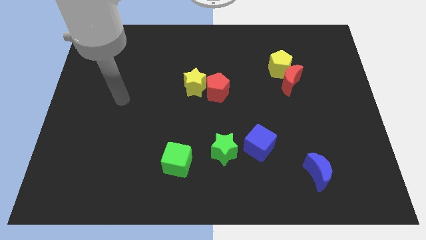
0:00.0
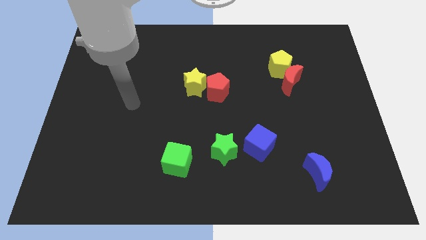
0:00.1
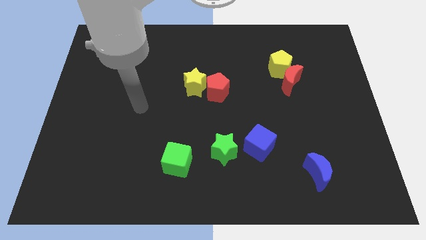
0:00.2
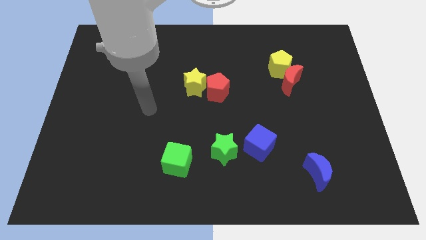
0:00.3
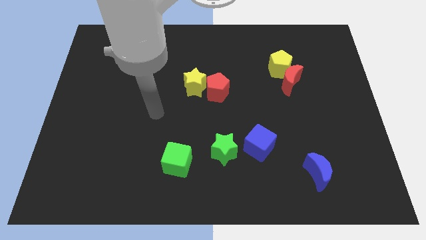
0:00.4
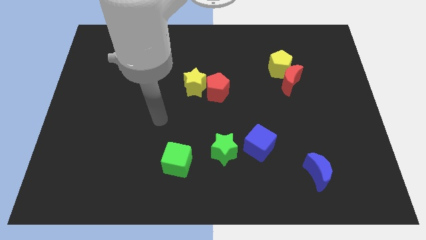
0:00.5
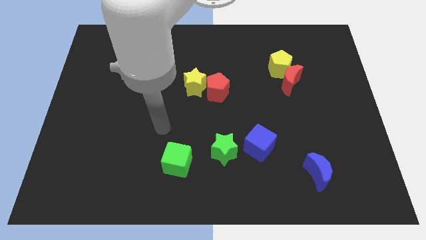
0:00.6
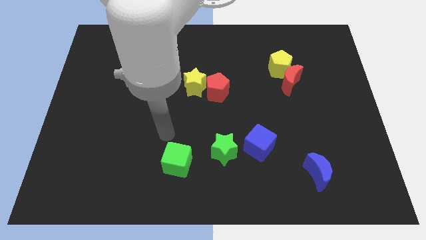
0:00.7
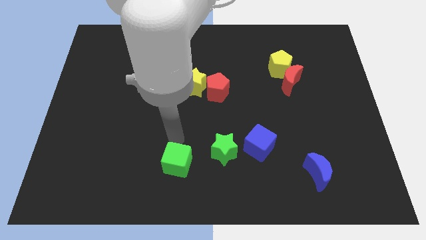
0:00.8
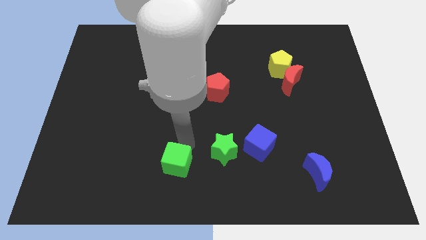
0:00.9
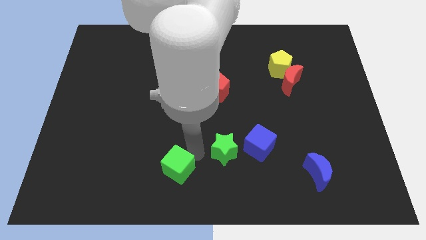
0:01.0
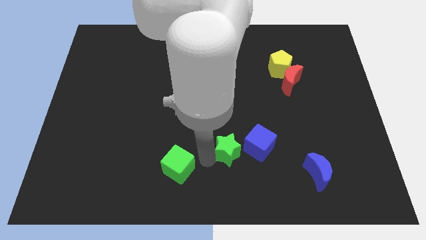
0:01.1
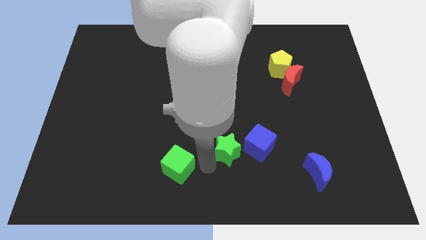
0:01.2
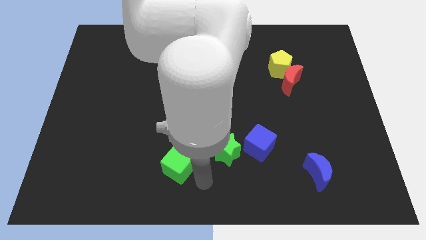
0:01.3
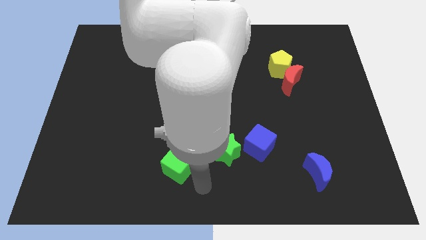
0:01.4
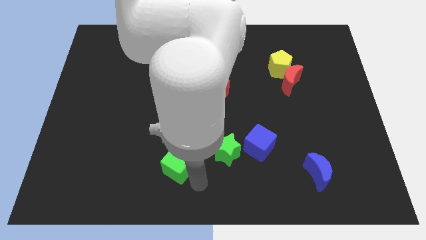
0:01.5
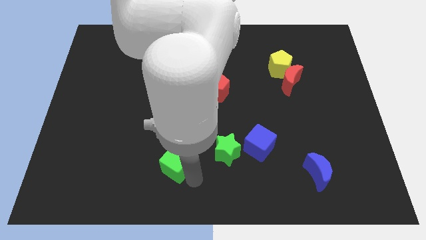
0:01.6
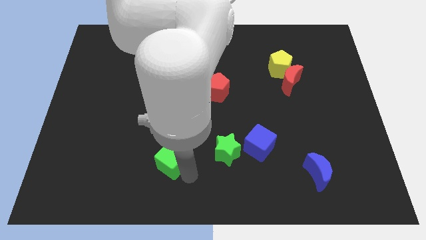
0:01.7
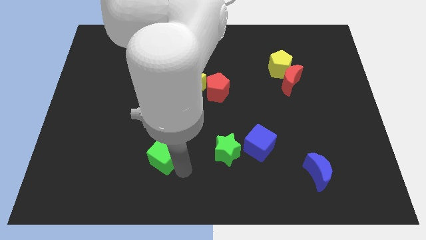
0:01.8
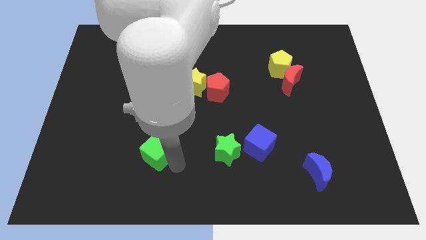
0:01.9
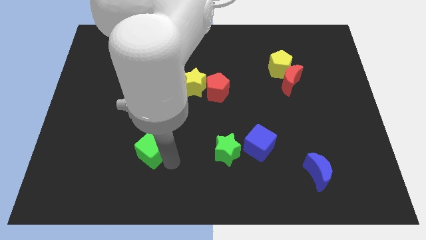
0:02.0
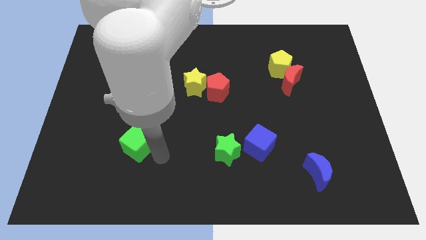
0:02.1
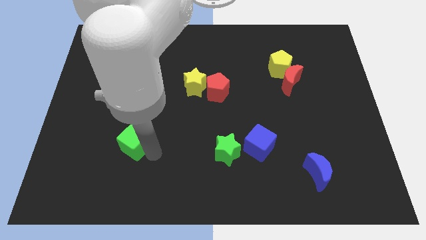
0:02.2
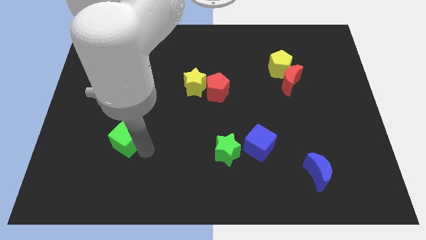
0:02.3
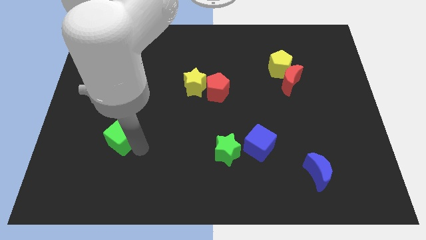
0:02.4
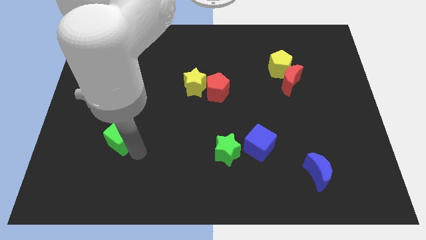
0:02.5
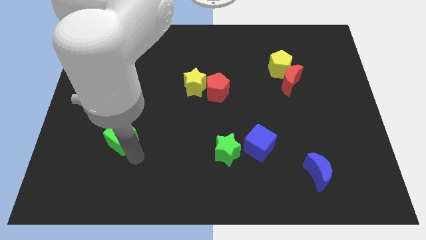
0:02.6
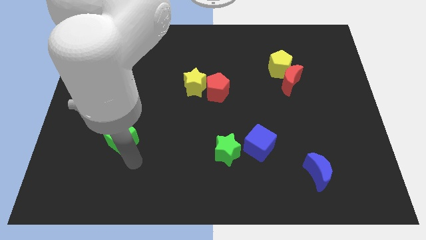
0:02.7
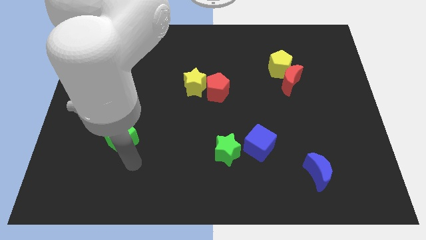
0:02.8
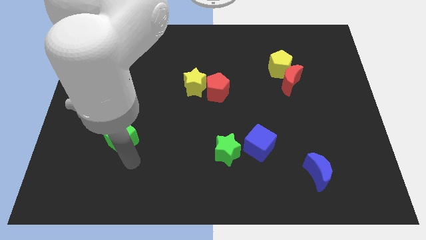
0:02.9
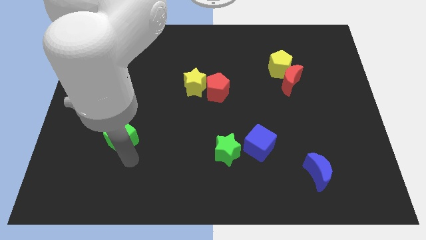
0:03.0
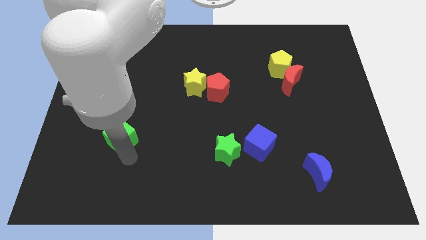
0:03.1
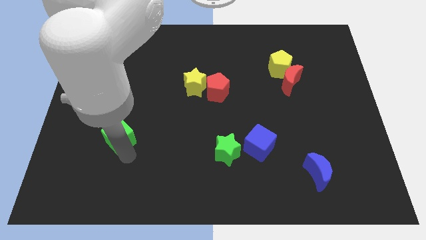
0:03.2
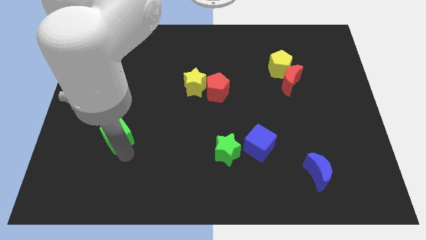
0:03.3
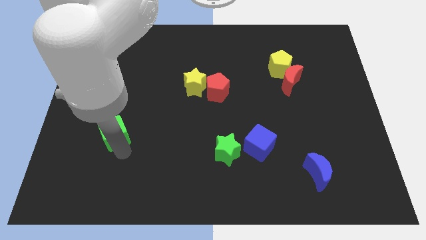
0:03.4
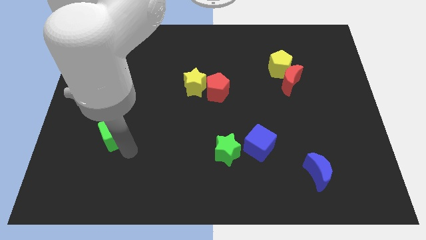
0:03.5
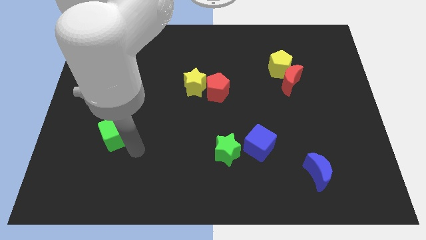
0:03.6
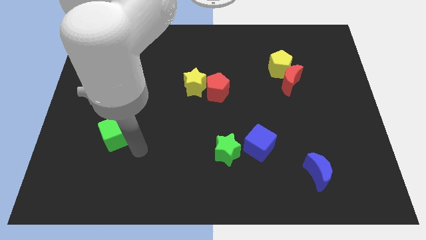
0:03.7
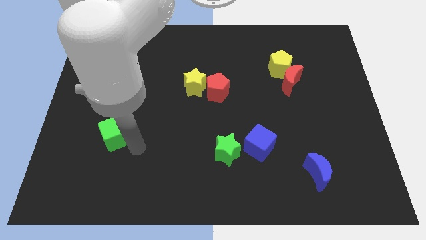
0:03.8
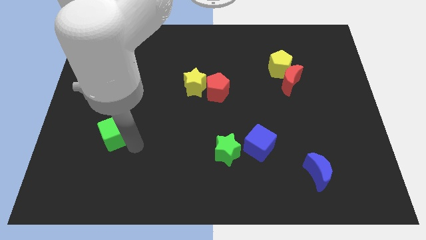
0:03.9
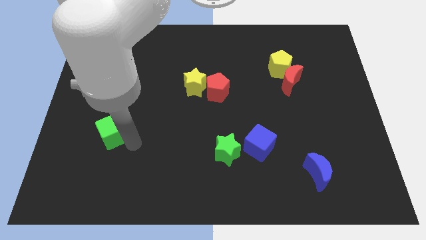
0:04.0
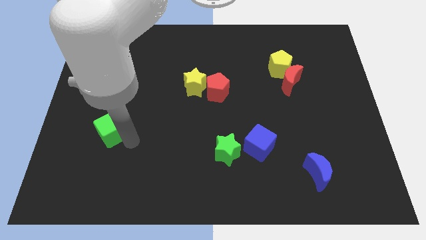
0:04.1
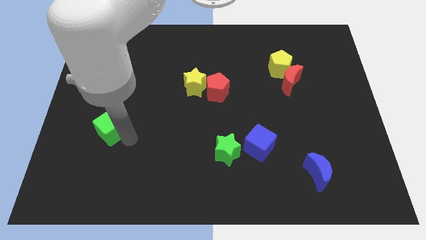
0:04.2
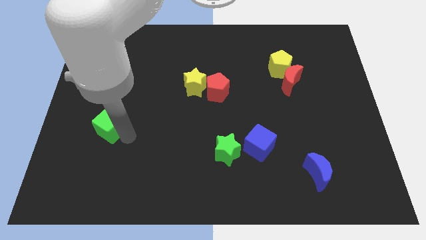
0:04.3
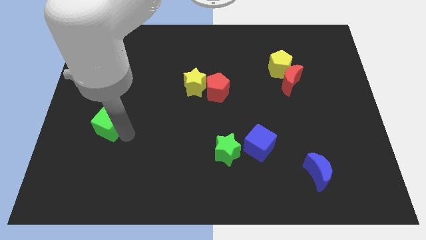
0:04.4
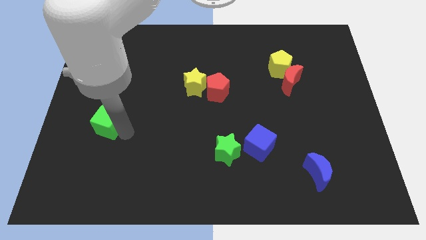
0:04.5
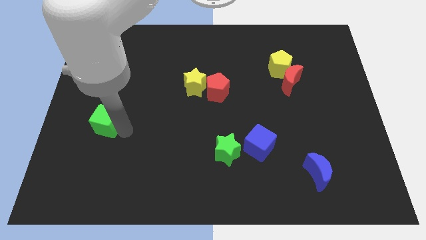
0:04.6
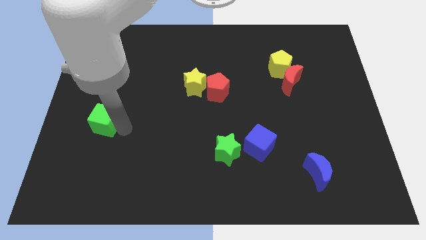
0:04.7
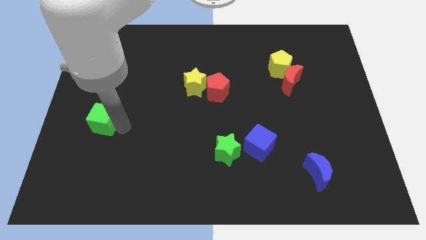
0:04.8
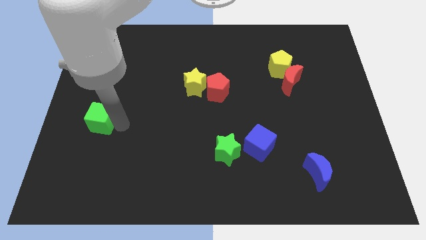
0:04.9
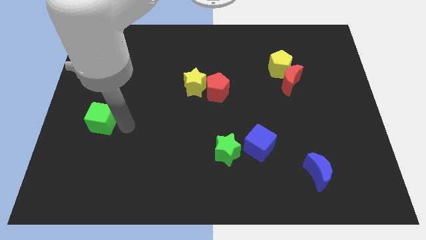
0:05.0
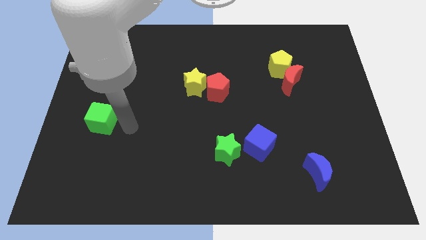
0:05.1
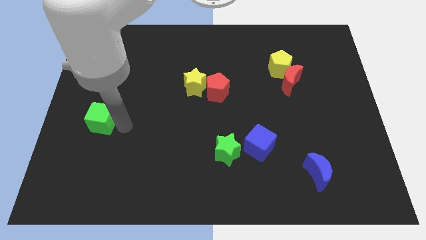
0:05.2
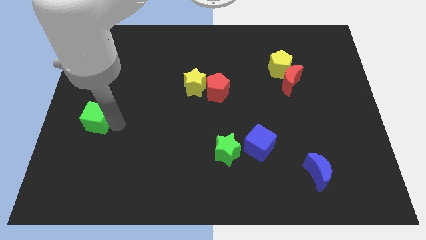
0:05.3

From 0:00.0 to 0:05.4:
slide the green cube to the left side

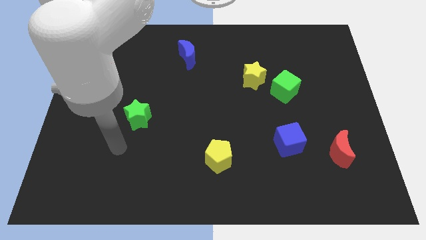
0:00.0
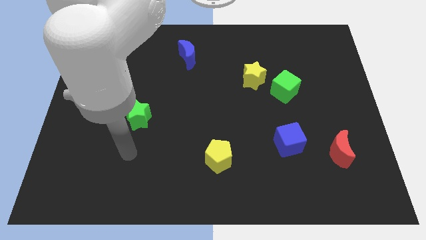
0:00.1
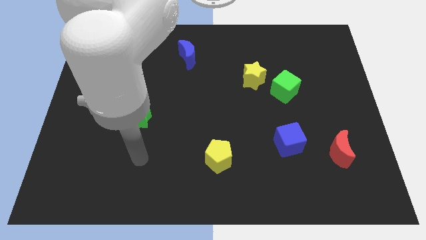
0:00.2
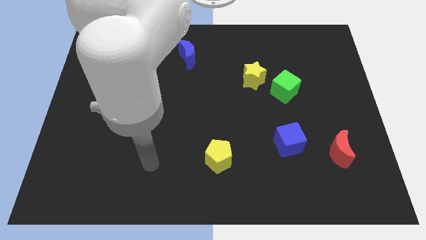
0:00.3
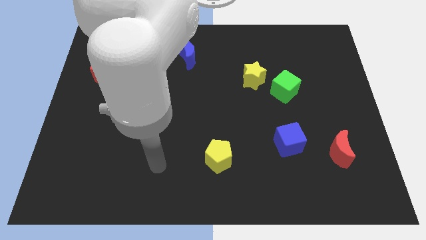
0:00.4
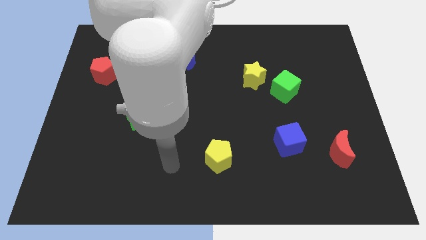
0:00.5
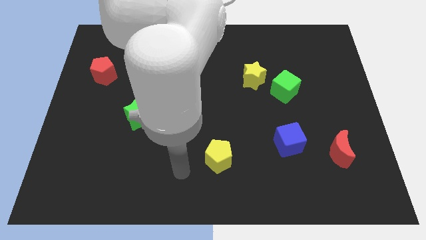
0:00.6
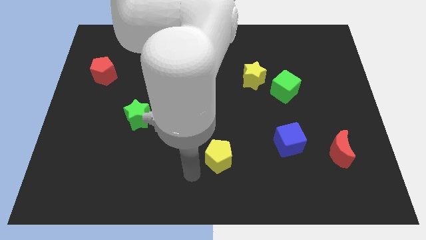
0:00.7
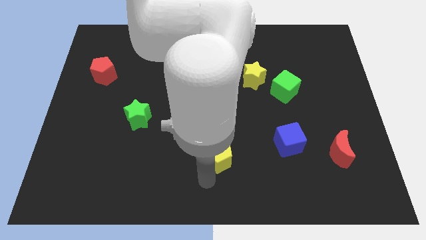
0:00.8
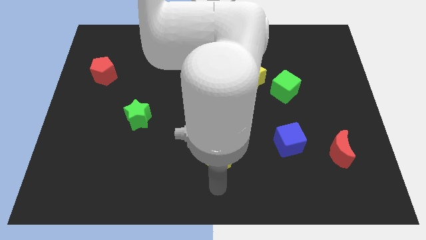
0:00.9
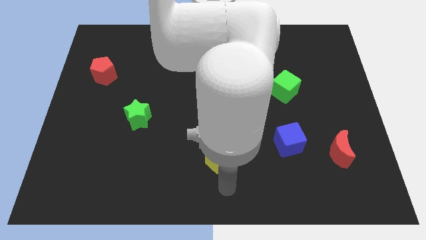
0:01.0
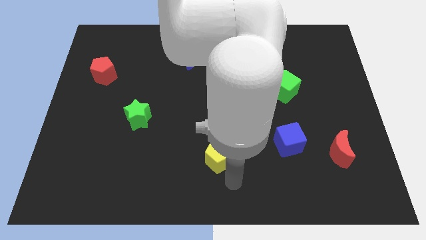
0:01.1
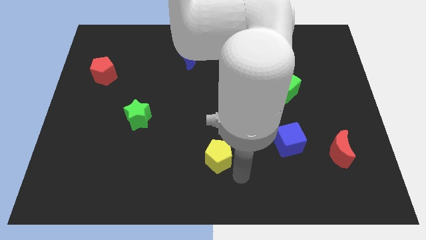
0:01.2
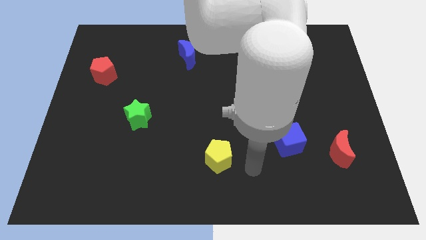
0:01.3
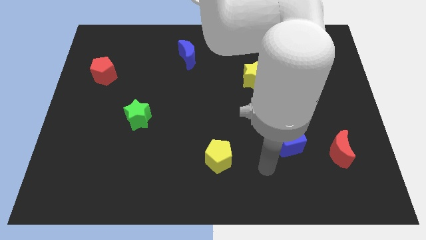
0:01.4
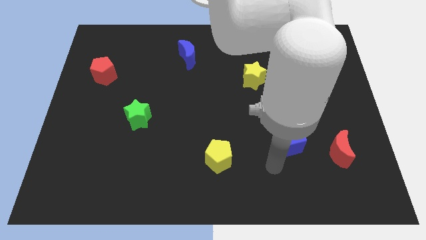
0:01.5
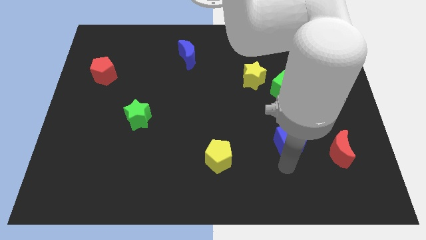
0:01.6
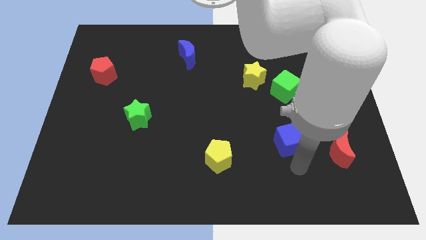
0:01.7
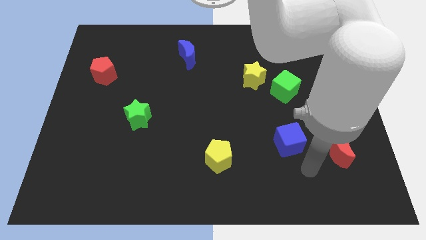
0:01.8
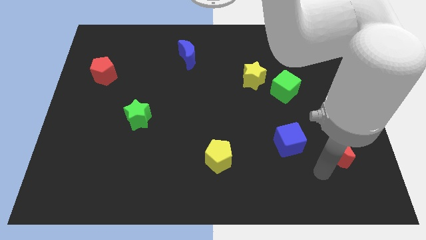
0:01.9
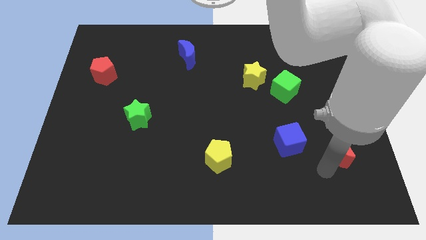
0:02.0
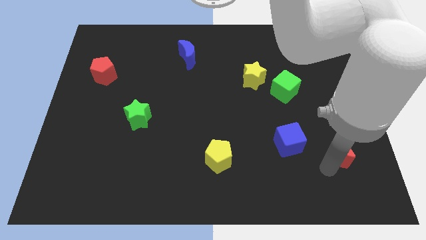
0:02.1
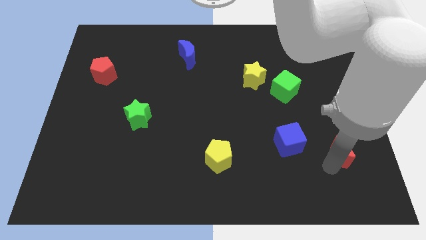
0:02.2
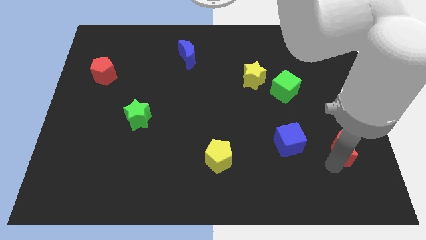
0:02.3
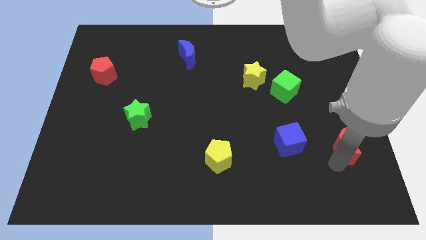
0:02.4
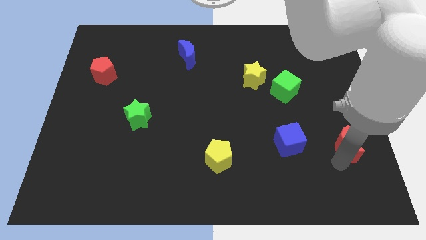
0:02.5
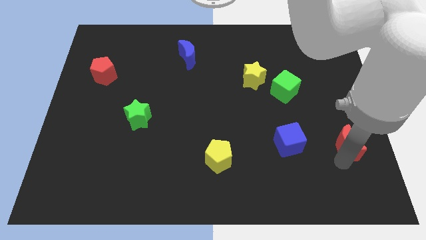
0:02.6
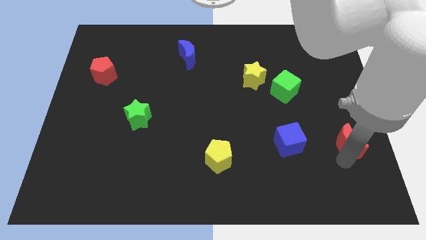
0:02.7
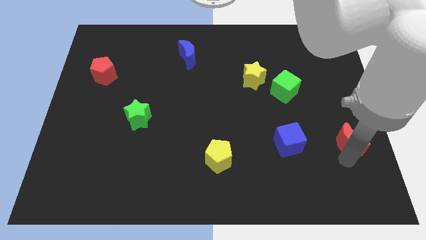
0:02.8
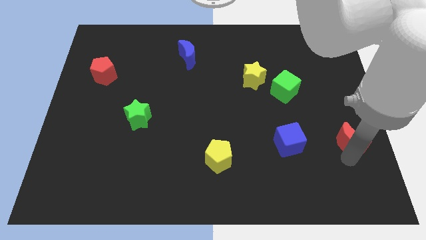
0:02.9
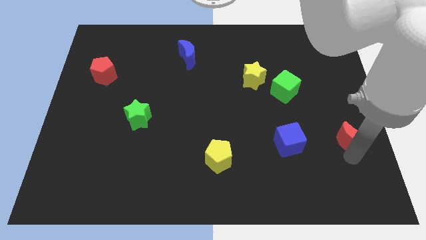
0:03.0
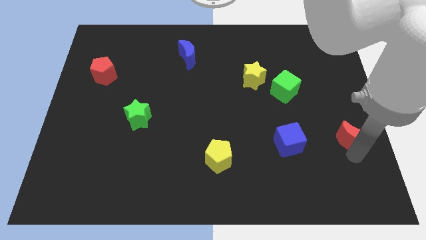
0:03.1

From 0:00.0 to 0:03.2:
move the red moon to the right side
